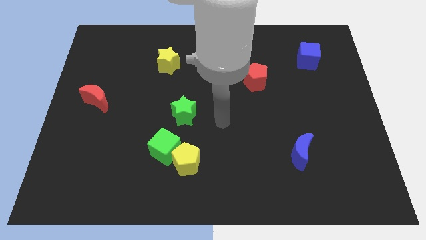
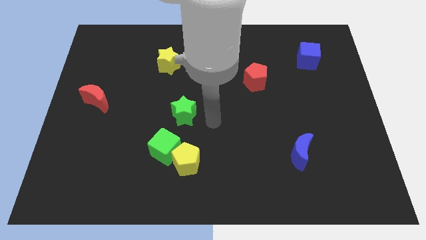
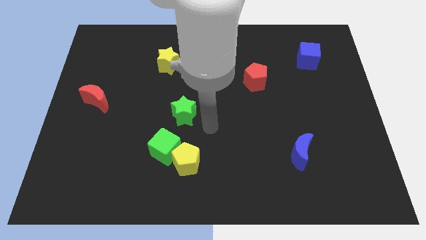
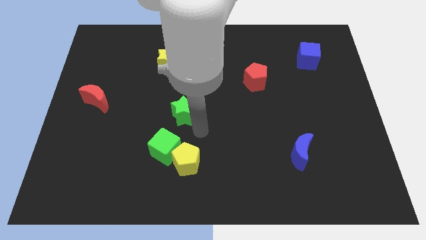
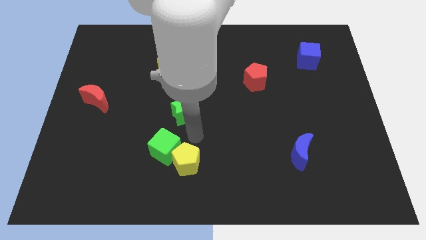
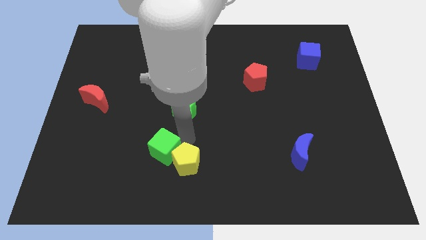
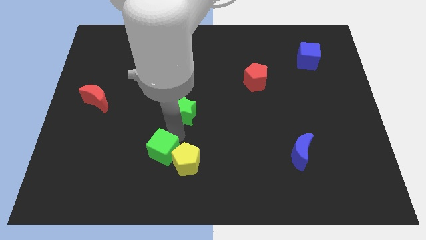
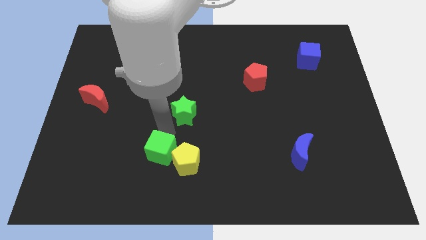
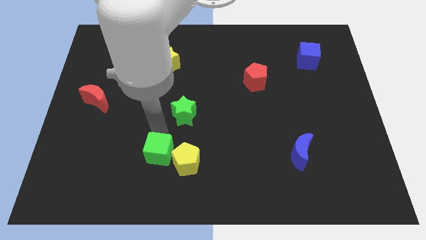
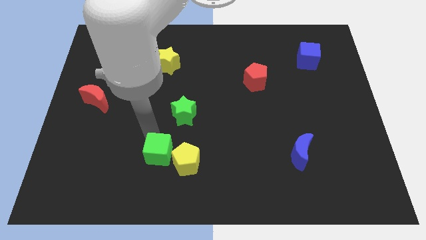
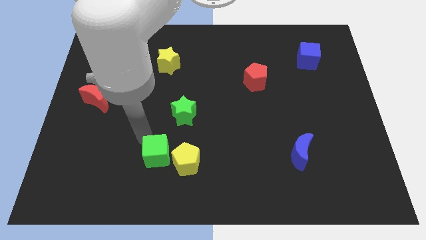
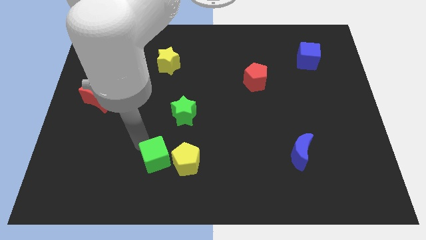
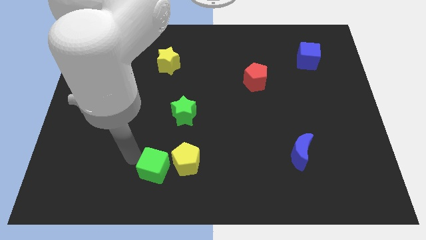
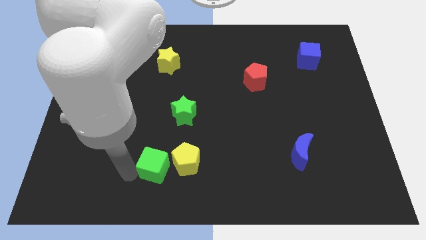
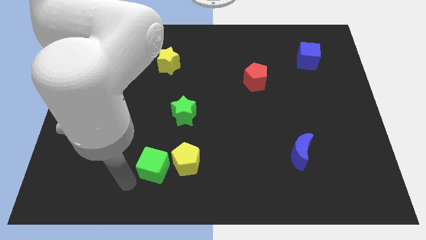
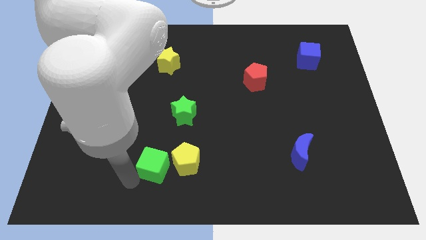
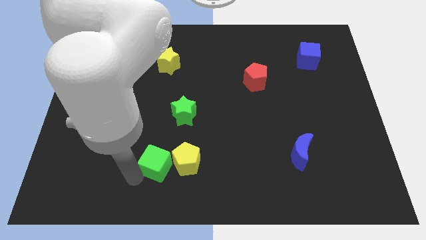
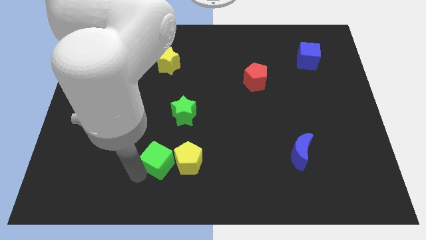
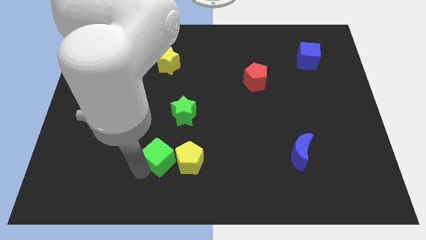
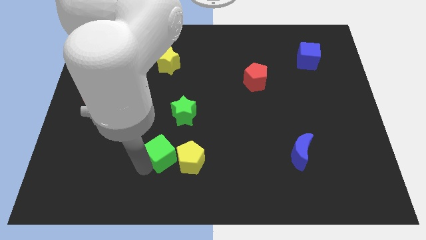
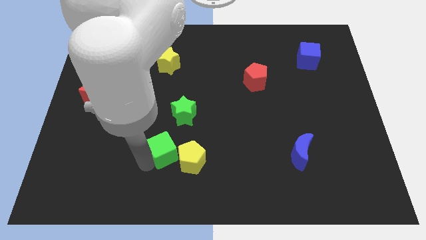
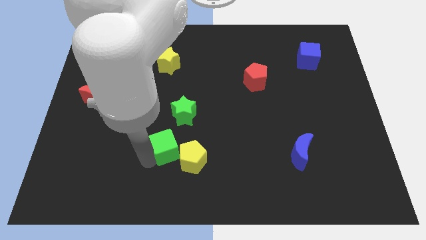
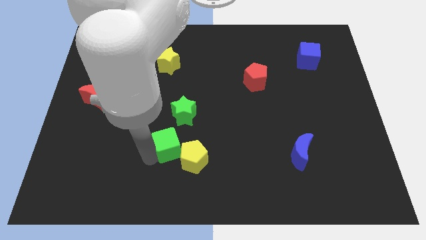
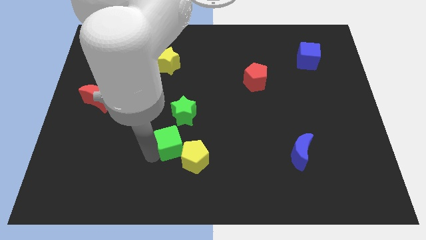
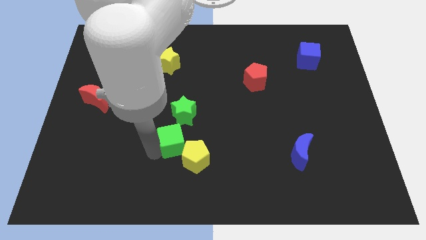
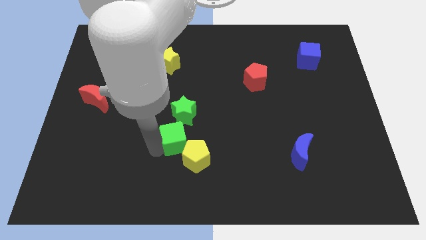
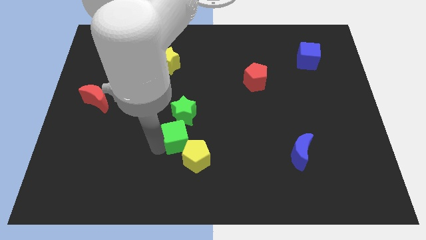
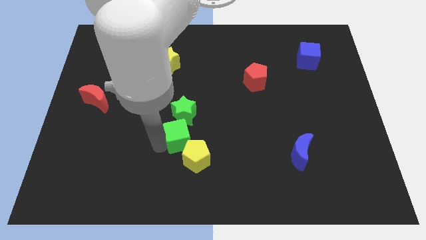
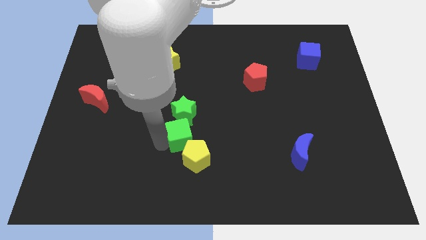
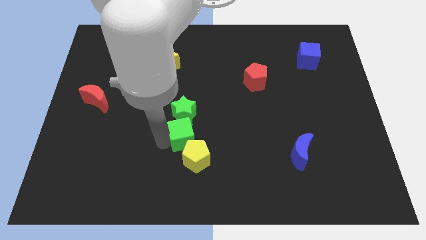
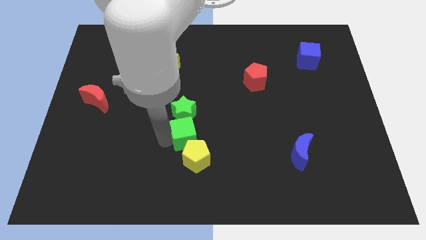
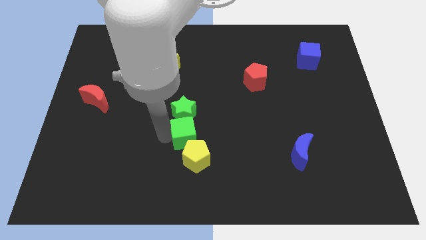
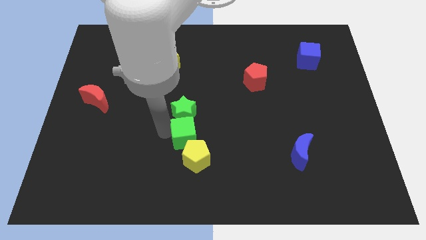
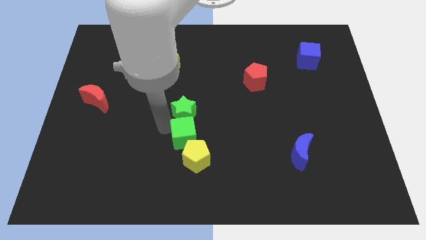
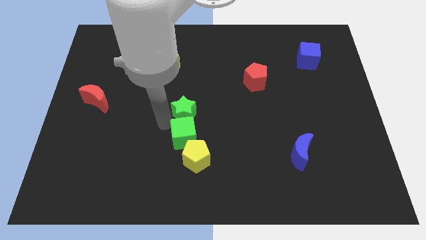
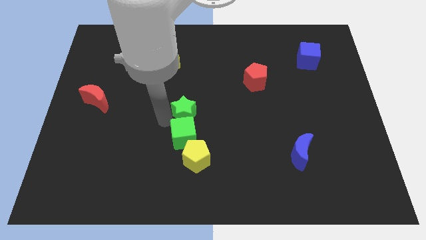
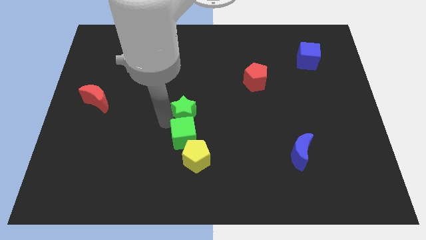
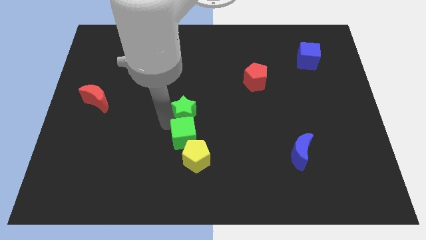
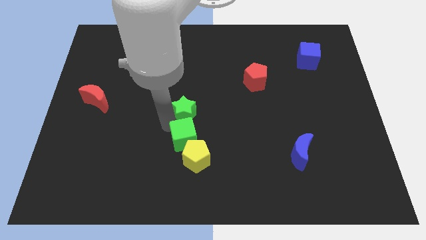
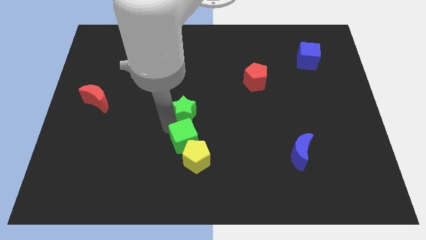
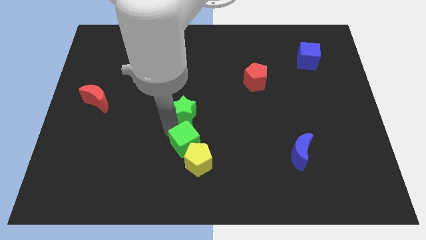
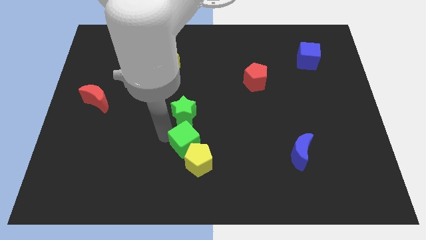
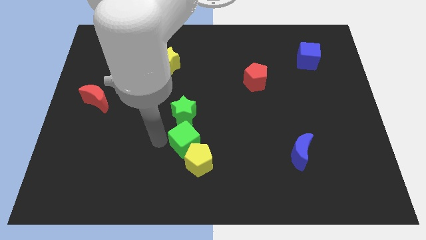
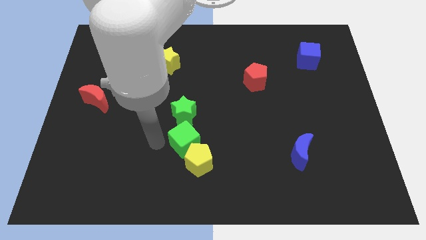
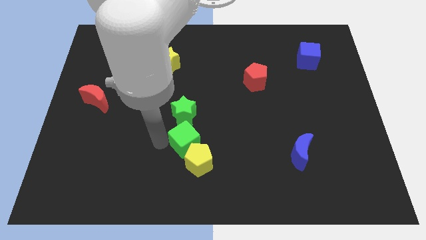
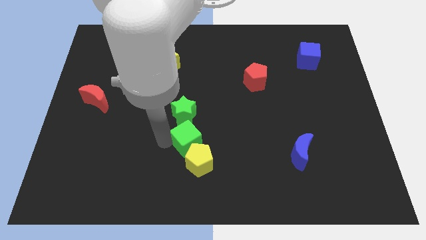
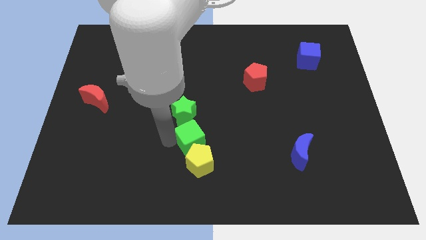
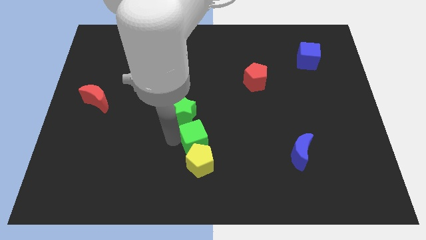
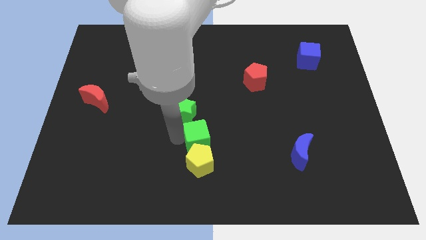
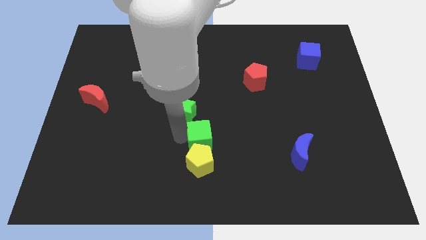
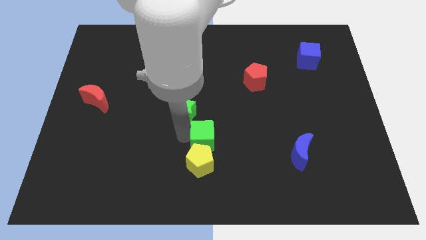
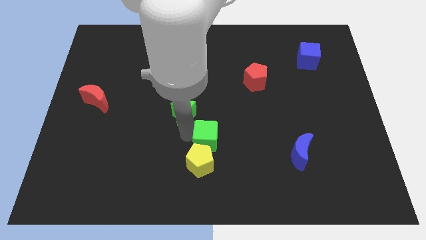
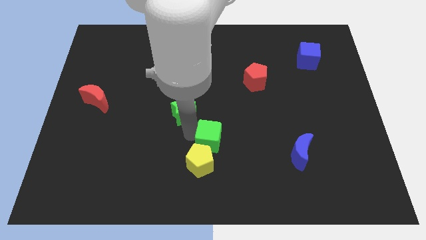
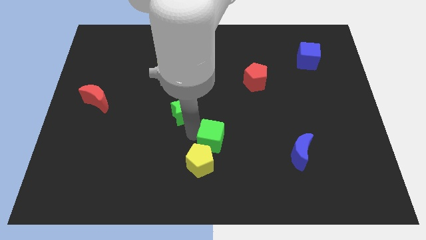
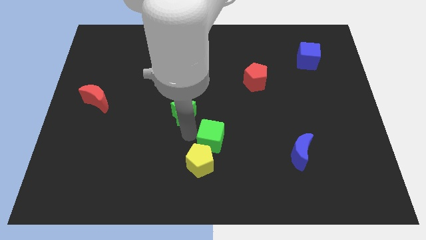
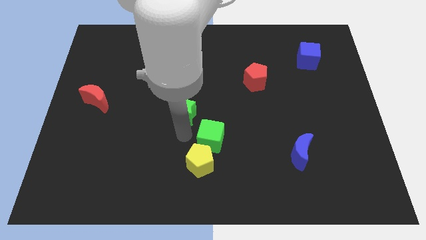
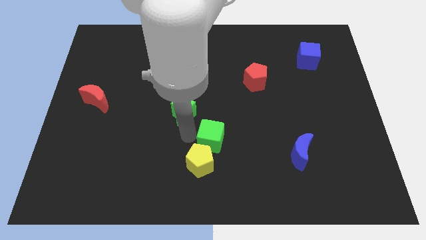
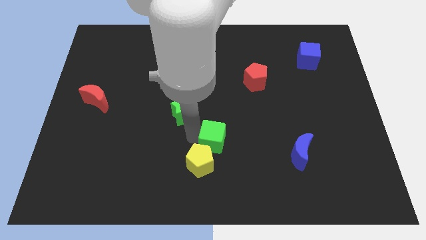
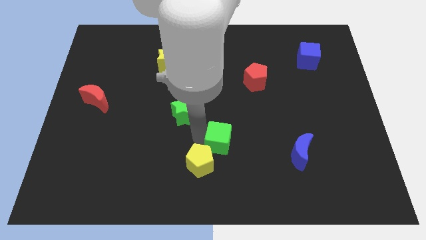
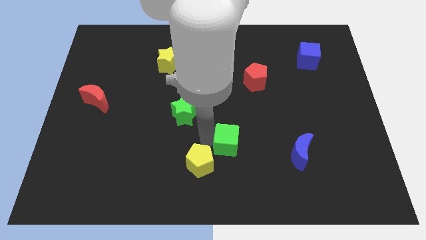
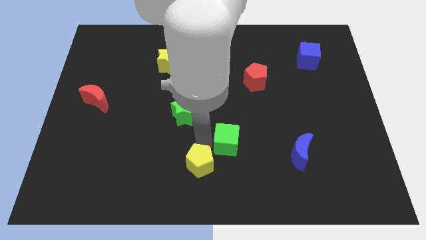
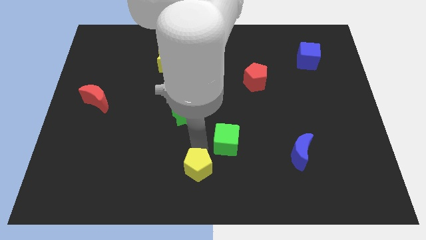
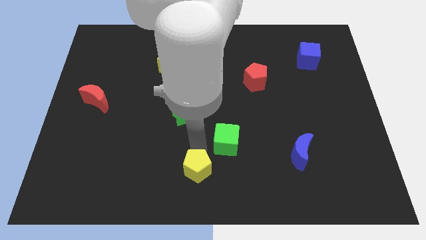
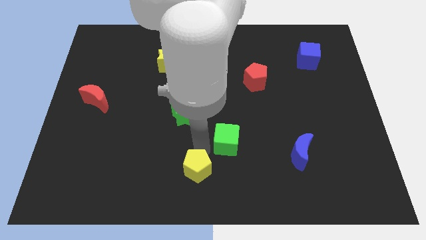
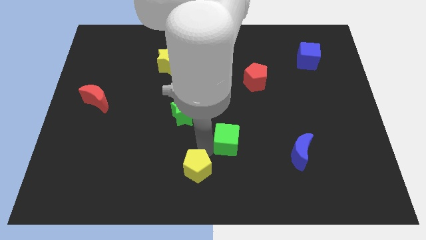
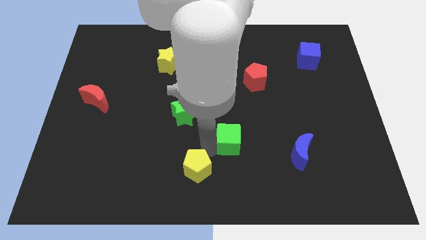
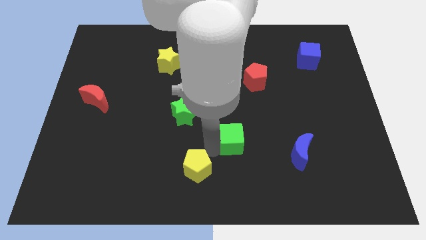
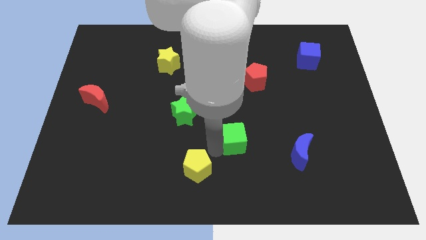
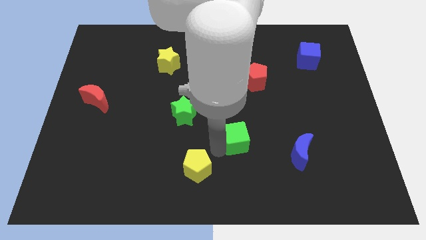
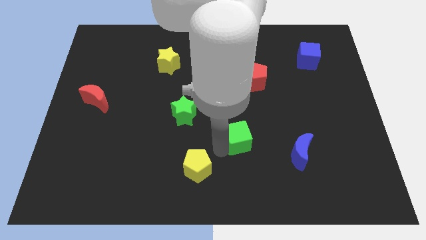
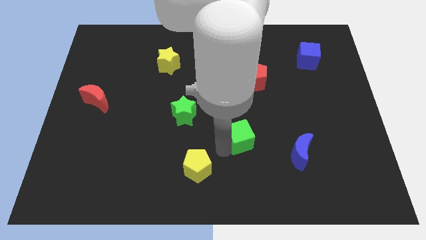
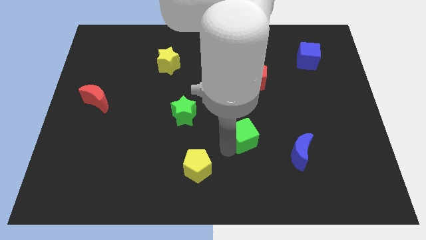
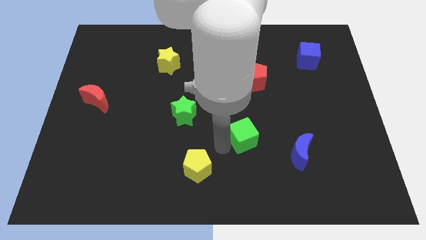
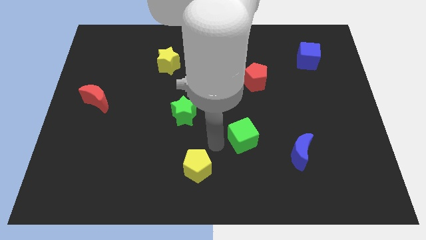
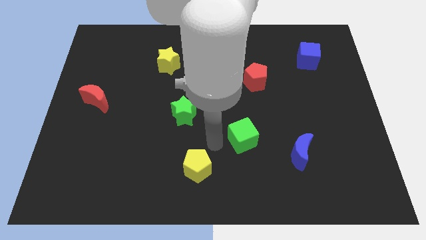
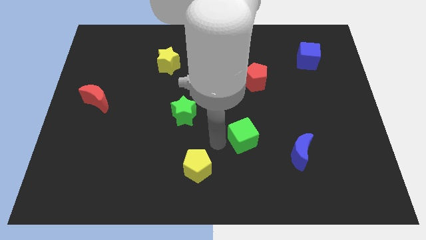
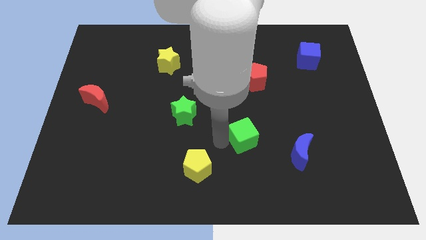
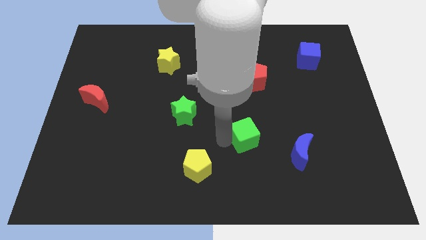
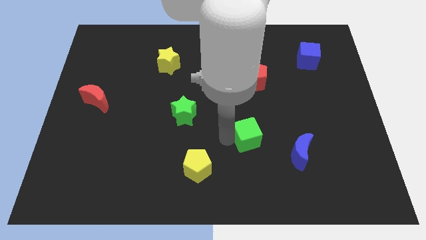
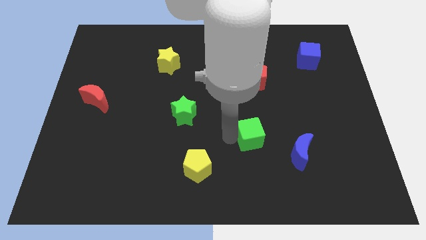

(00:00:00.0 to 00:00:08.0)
move the green cube to the top left of the blue moon
